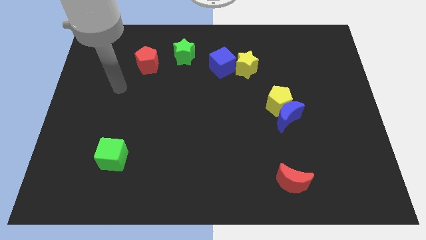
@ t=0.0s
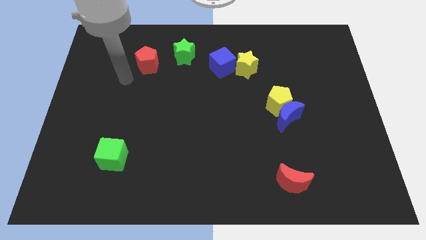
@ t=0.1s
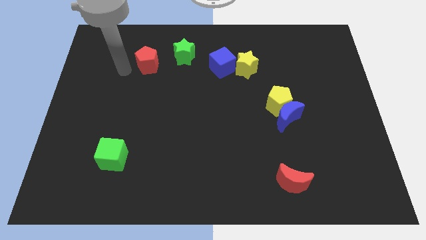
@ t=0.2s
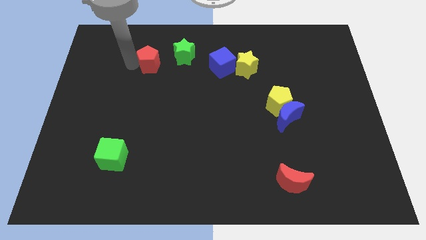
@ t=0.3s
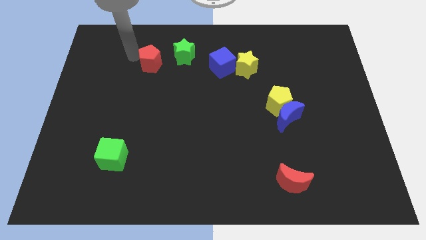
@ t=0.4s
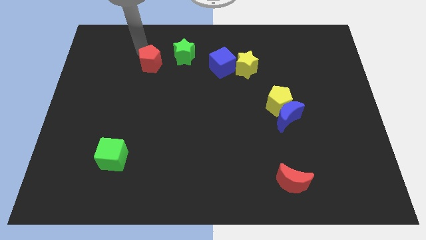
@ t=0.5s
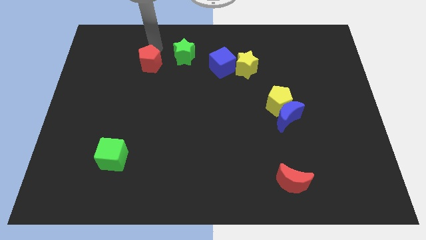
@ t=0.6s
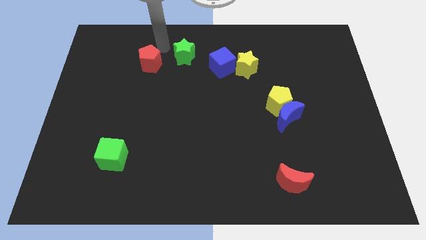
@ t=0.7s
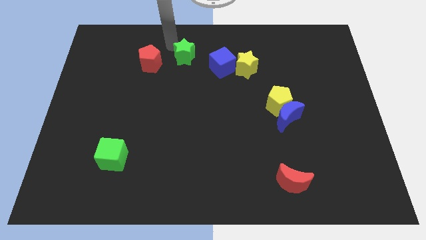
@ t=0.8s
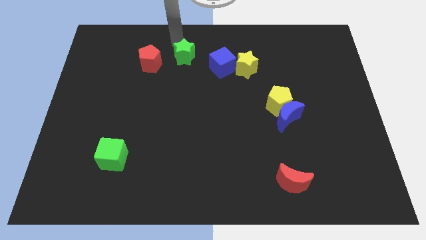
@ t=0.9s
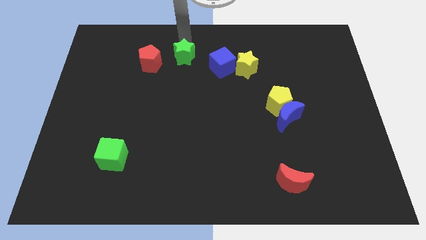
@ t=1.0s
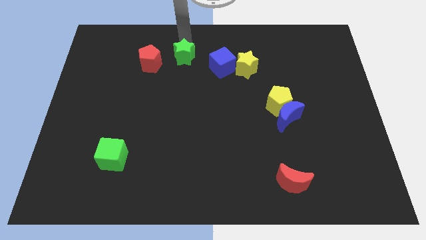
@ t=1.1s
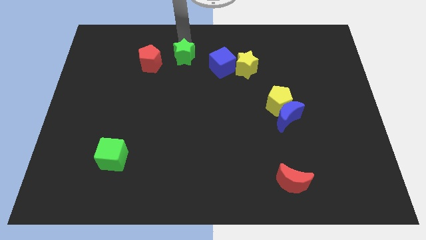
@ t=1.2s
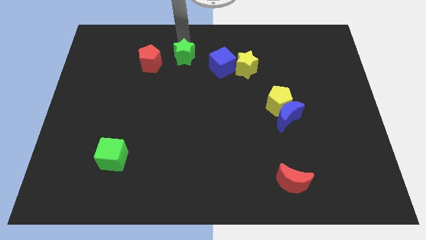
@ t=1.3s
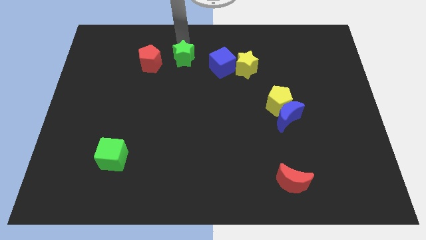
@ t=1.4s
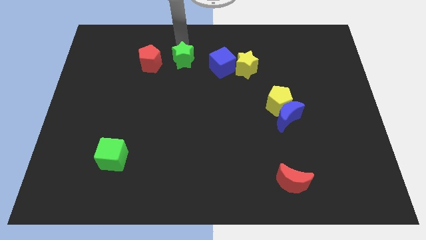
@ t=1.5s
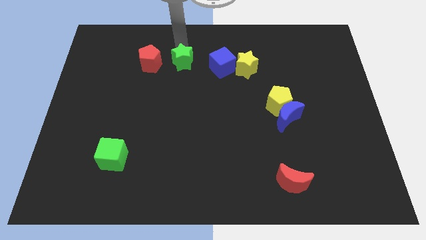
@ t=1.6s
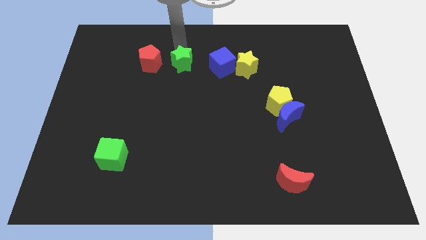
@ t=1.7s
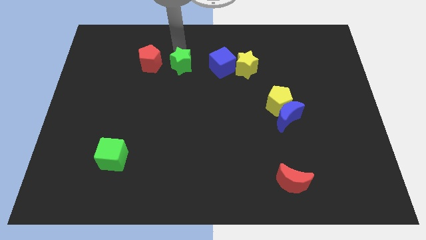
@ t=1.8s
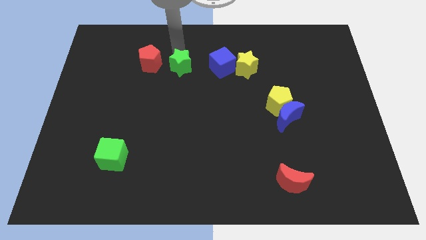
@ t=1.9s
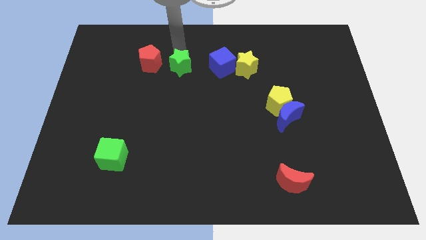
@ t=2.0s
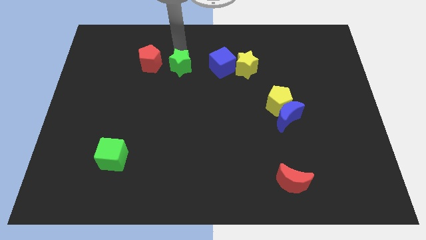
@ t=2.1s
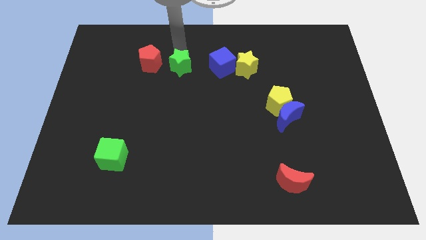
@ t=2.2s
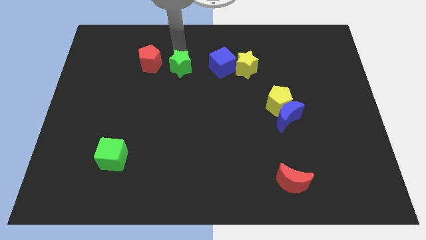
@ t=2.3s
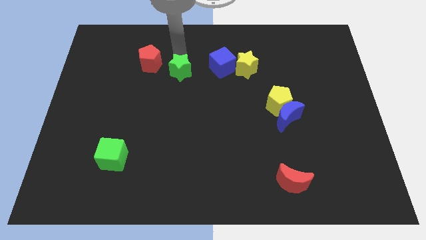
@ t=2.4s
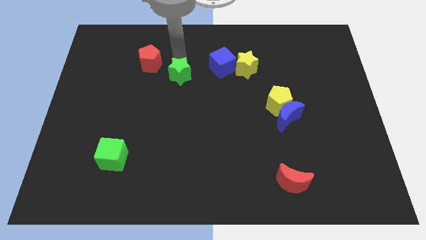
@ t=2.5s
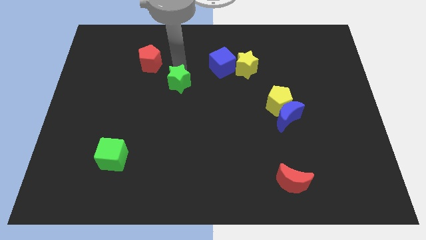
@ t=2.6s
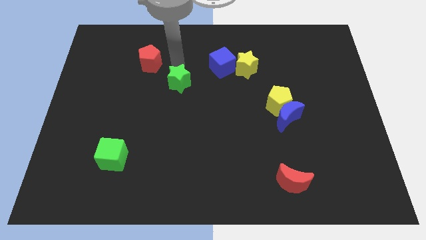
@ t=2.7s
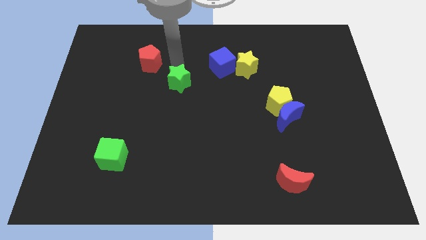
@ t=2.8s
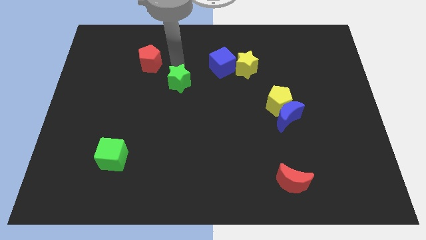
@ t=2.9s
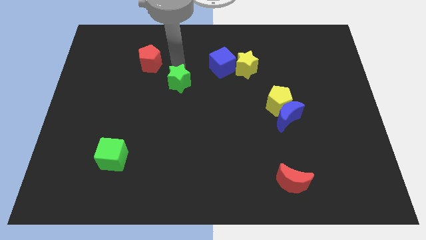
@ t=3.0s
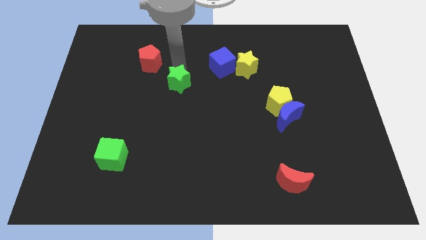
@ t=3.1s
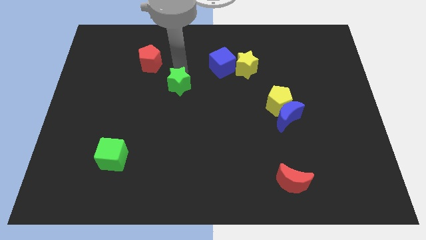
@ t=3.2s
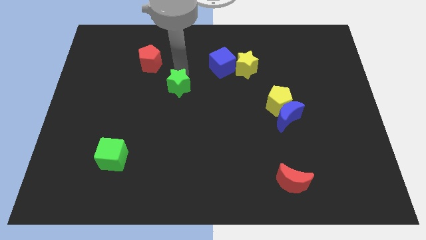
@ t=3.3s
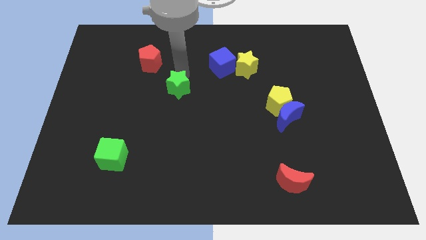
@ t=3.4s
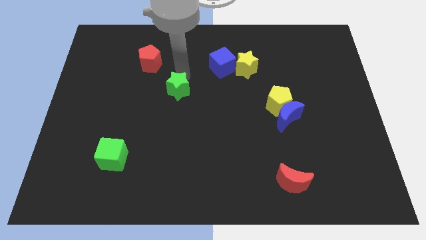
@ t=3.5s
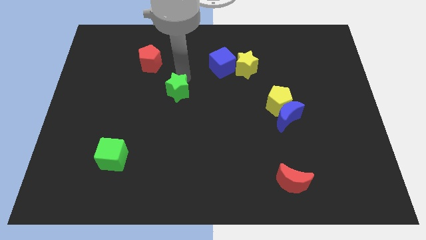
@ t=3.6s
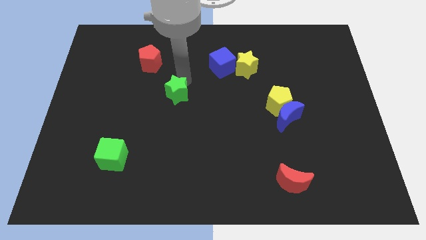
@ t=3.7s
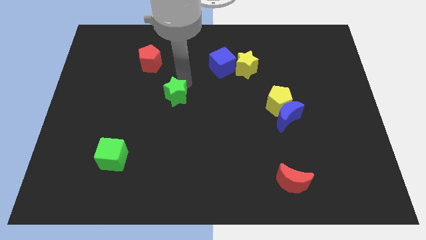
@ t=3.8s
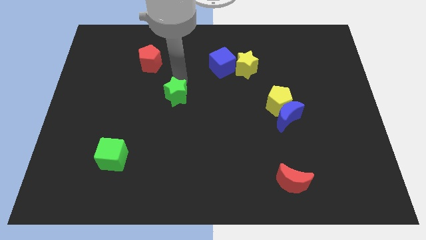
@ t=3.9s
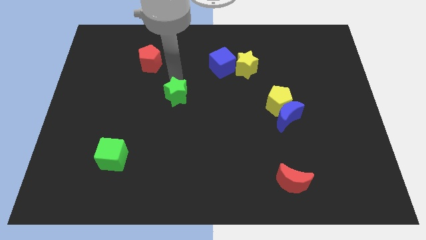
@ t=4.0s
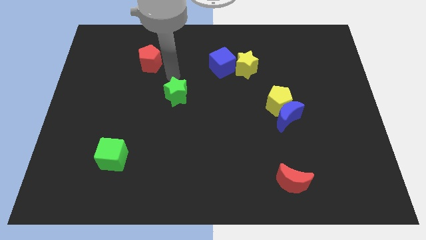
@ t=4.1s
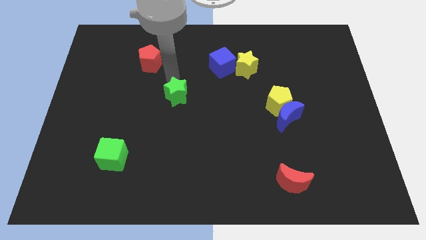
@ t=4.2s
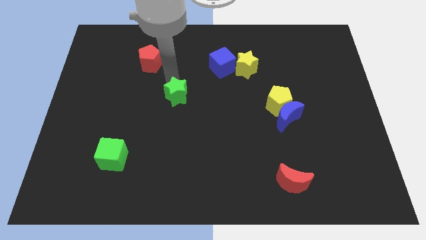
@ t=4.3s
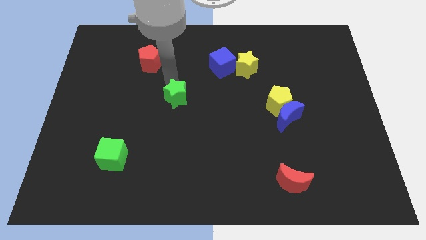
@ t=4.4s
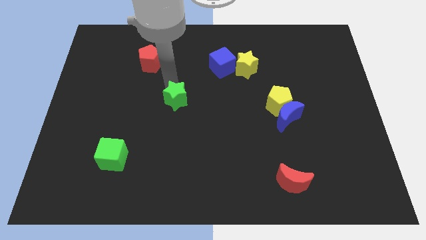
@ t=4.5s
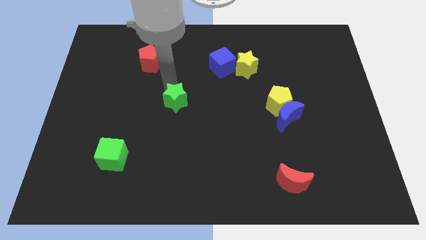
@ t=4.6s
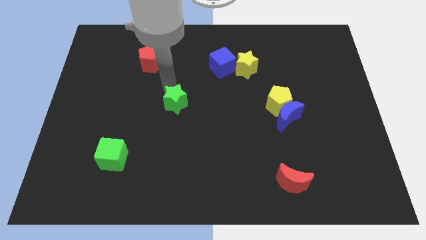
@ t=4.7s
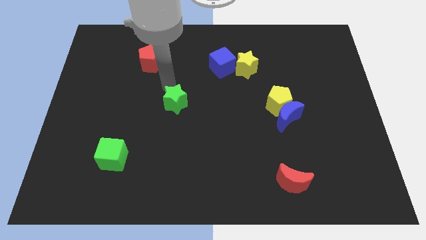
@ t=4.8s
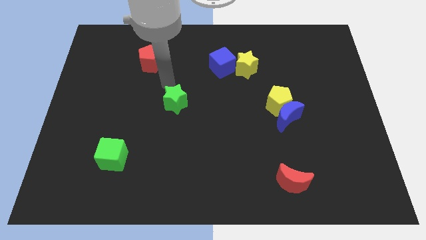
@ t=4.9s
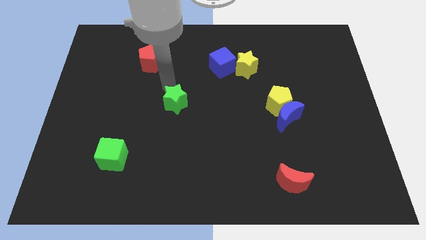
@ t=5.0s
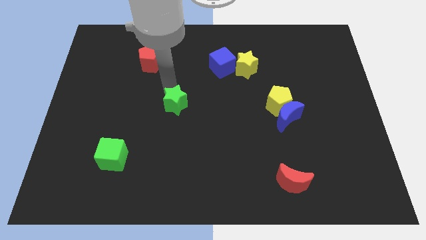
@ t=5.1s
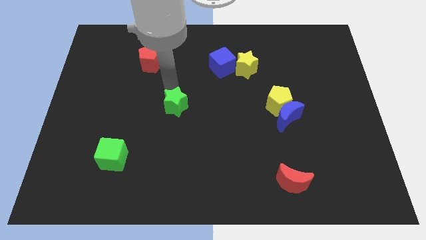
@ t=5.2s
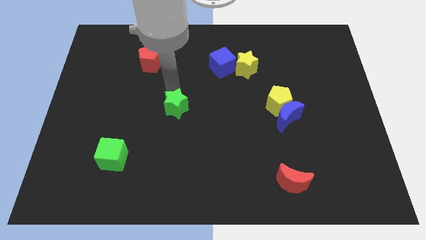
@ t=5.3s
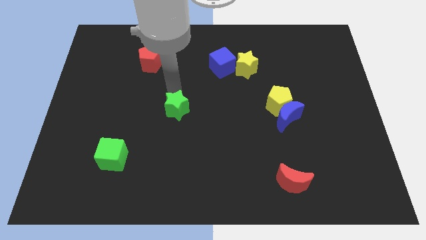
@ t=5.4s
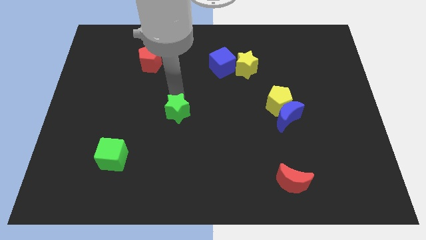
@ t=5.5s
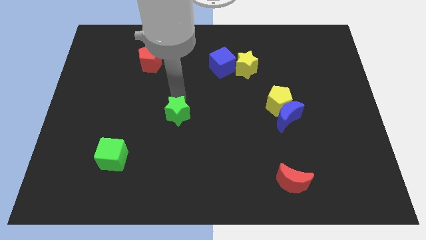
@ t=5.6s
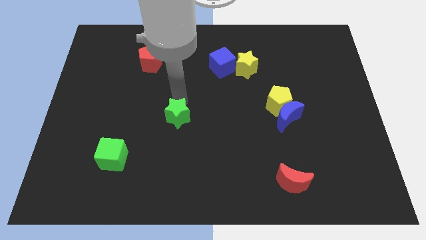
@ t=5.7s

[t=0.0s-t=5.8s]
push the green star down

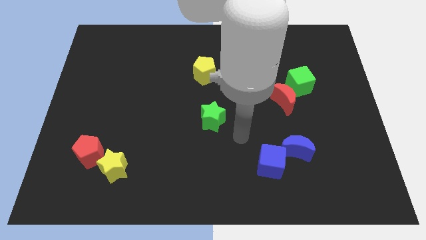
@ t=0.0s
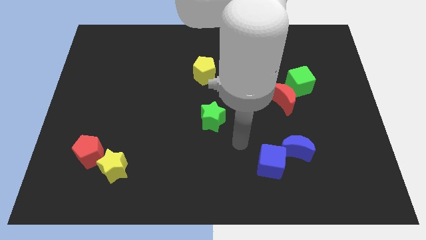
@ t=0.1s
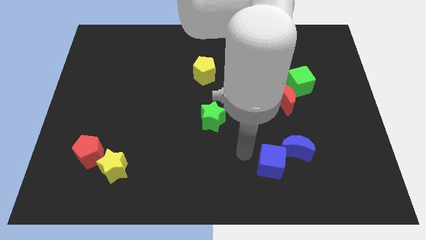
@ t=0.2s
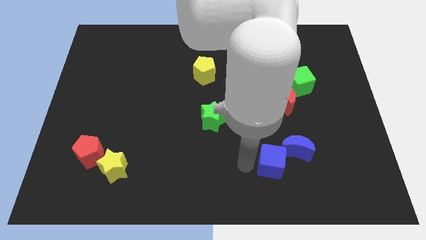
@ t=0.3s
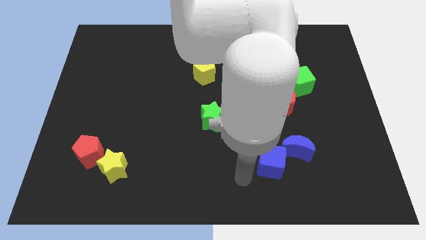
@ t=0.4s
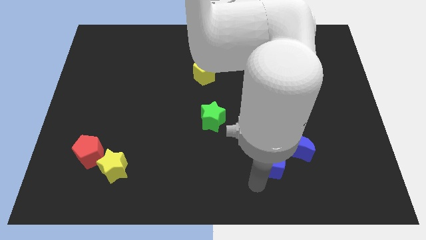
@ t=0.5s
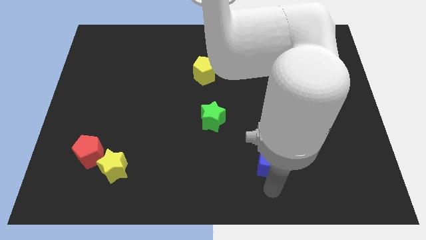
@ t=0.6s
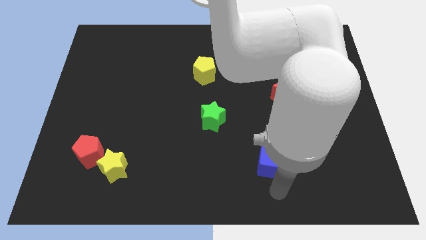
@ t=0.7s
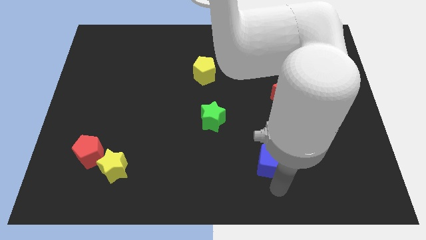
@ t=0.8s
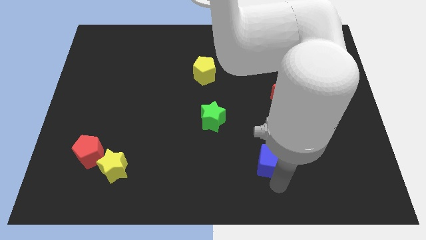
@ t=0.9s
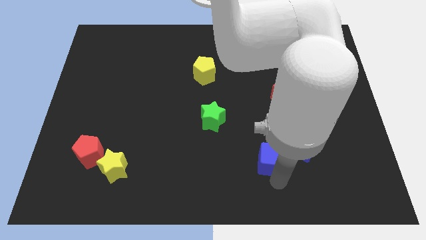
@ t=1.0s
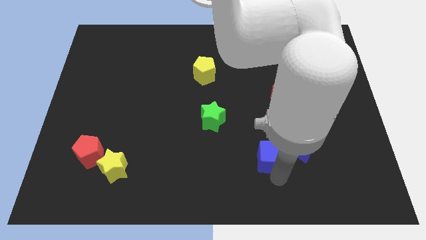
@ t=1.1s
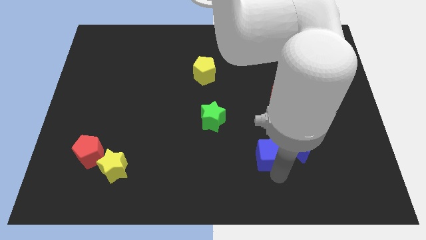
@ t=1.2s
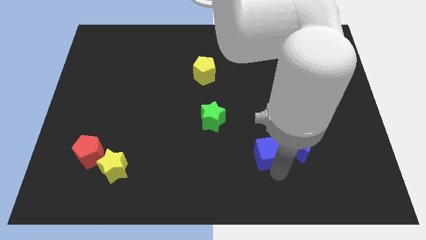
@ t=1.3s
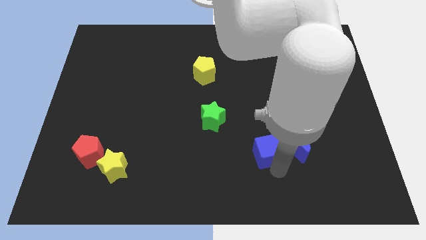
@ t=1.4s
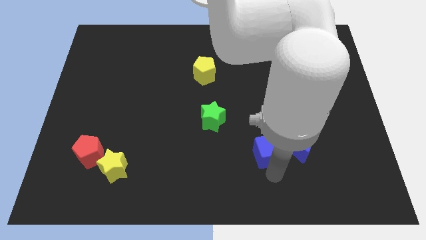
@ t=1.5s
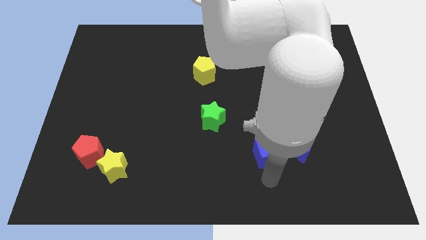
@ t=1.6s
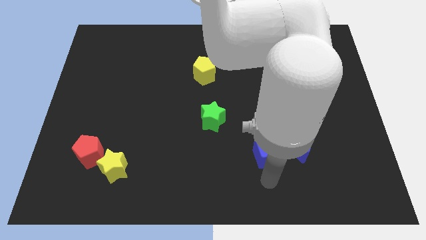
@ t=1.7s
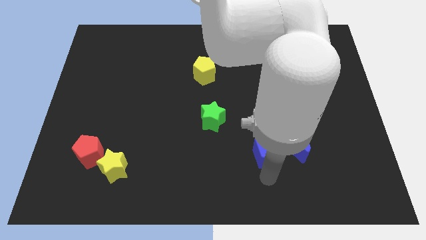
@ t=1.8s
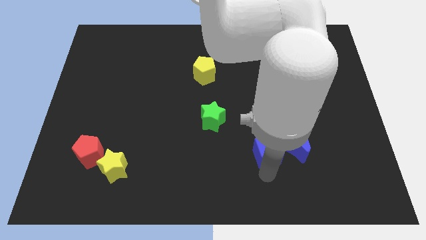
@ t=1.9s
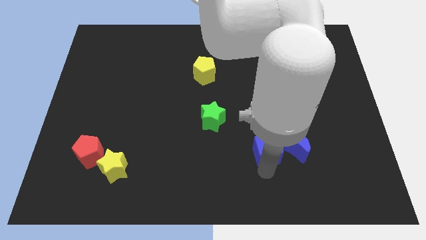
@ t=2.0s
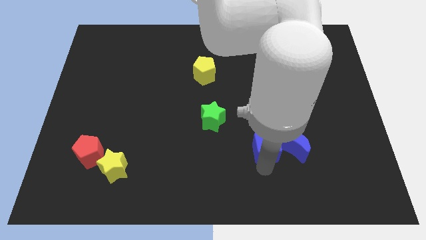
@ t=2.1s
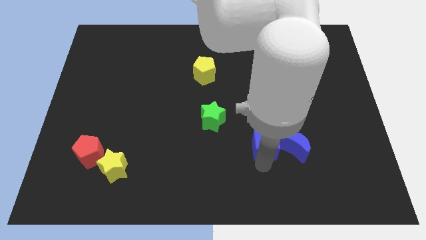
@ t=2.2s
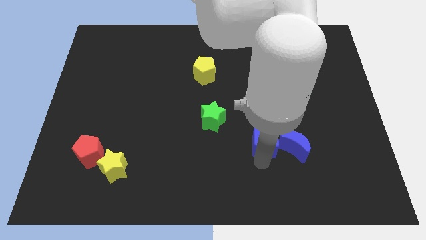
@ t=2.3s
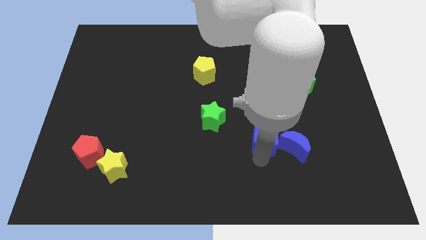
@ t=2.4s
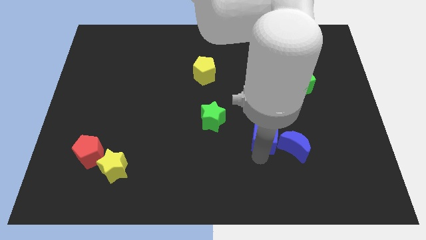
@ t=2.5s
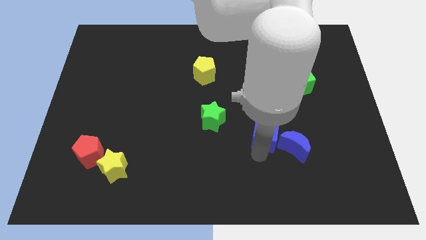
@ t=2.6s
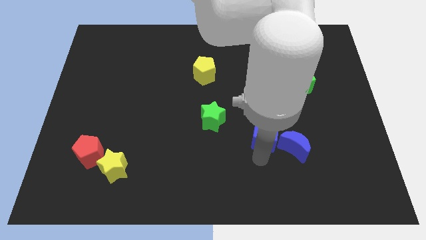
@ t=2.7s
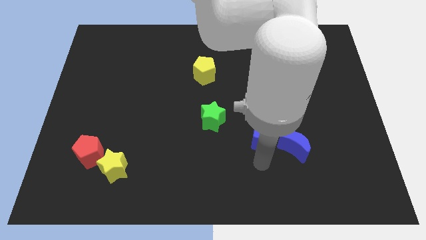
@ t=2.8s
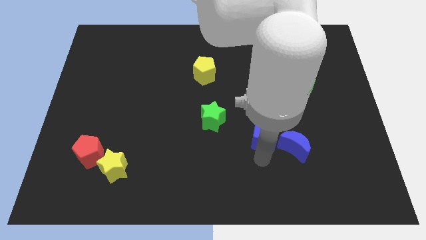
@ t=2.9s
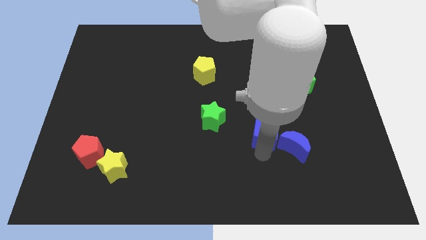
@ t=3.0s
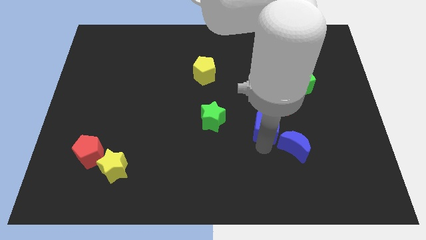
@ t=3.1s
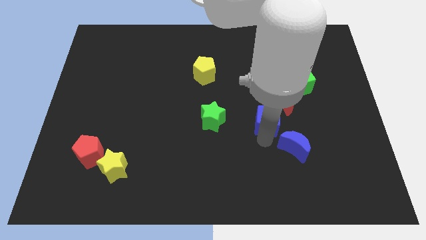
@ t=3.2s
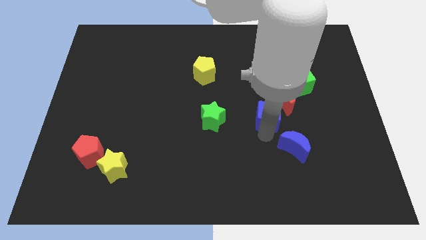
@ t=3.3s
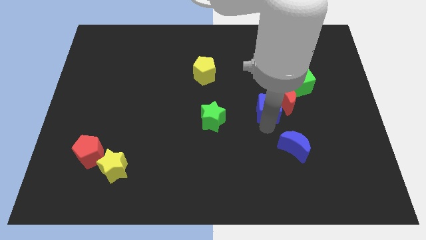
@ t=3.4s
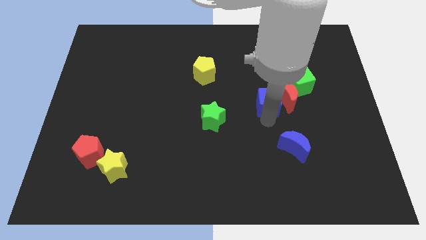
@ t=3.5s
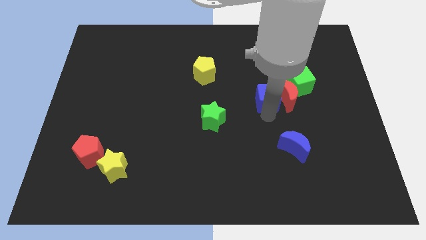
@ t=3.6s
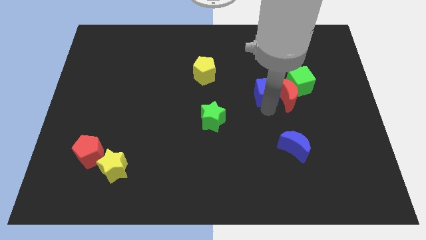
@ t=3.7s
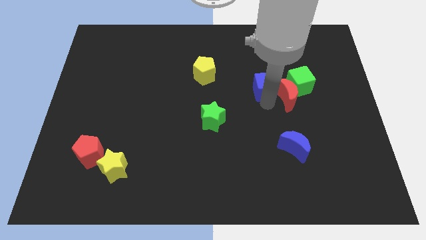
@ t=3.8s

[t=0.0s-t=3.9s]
slide the blue cube up
